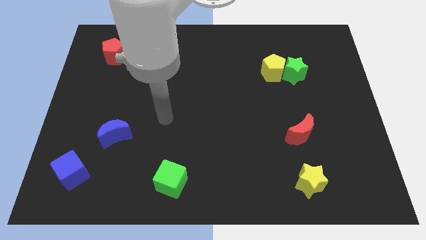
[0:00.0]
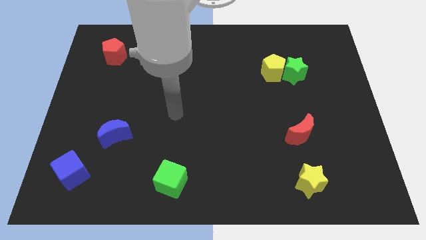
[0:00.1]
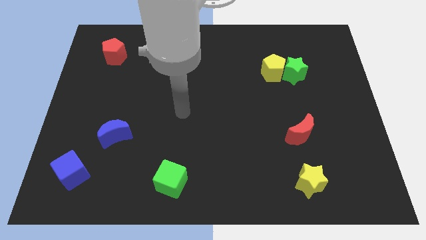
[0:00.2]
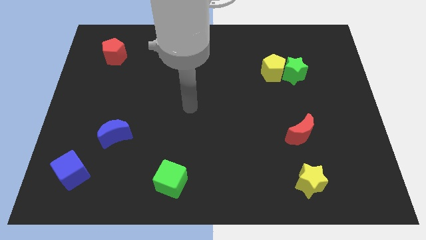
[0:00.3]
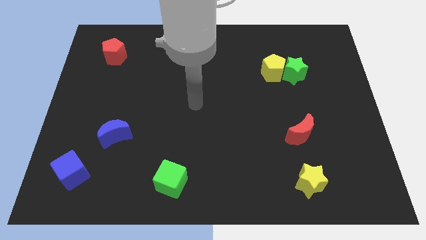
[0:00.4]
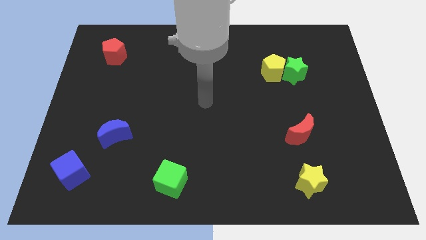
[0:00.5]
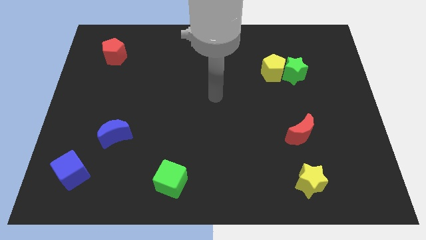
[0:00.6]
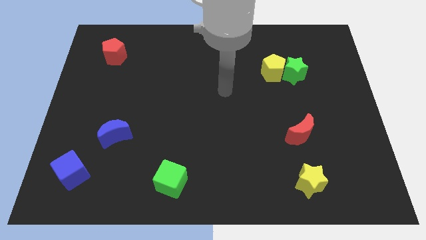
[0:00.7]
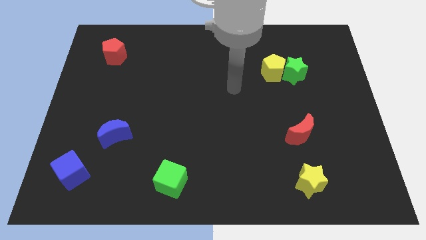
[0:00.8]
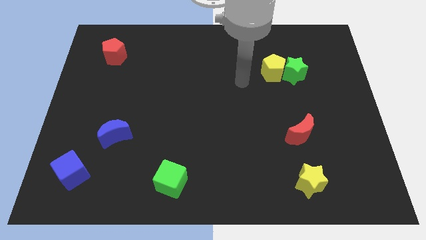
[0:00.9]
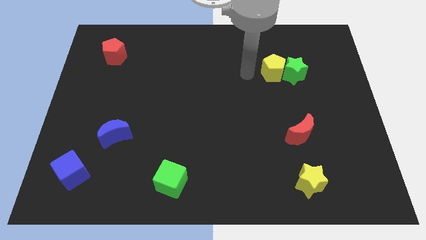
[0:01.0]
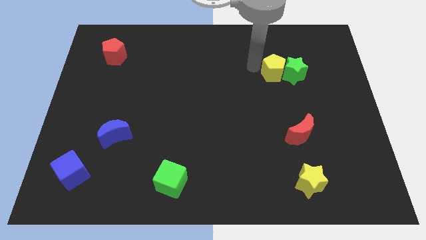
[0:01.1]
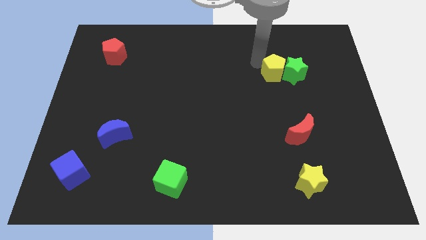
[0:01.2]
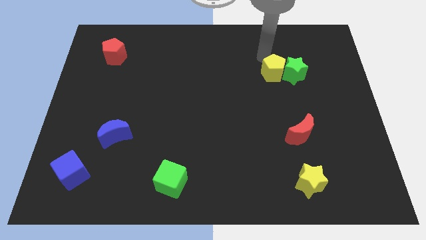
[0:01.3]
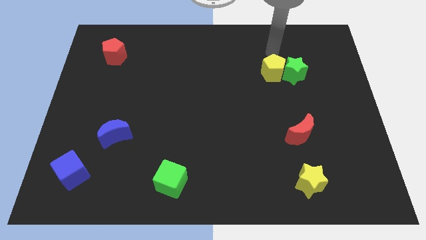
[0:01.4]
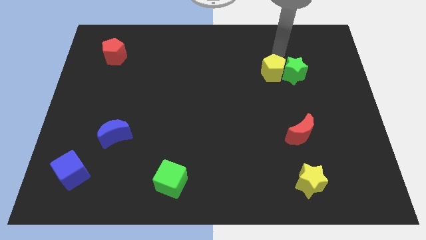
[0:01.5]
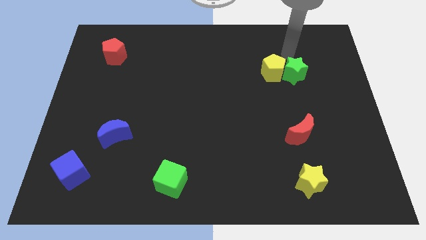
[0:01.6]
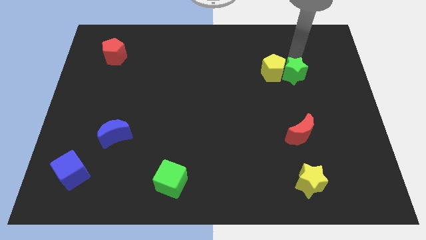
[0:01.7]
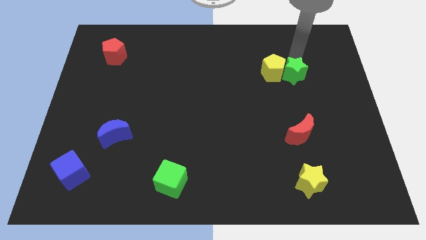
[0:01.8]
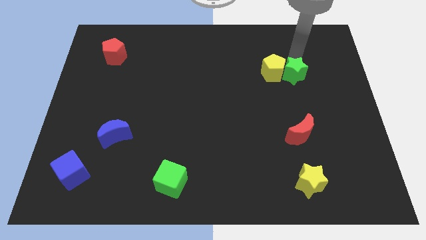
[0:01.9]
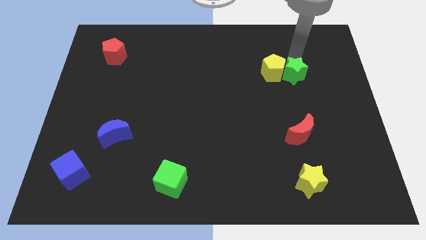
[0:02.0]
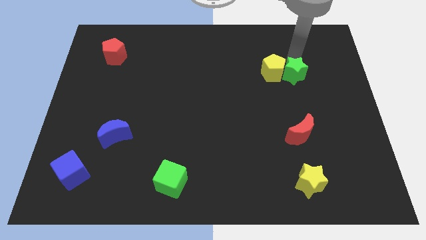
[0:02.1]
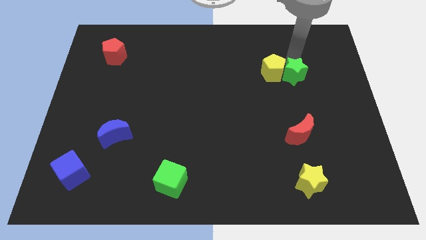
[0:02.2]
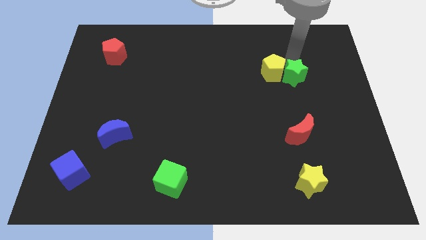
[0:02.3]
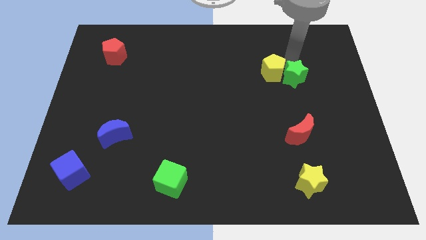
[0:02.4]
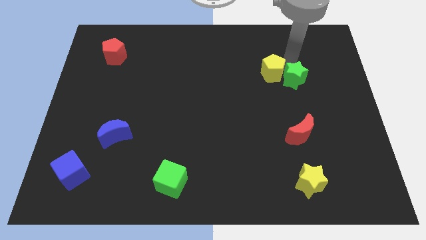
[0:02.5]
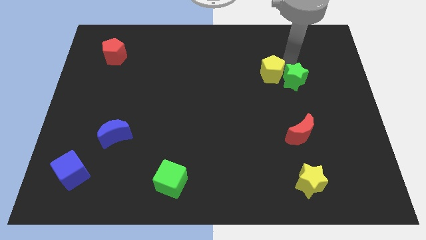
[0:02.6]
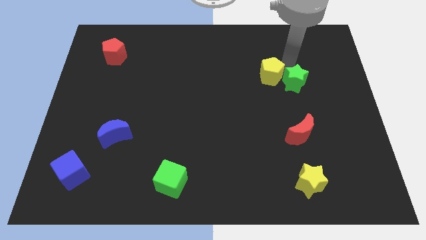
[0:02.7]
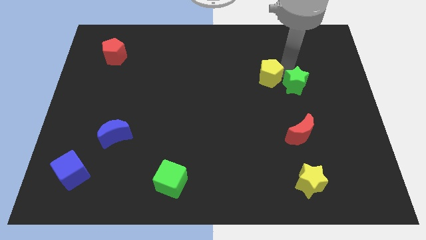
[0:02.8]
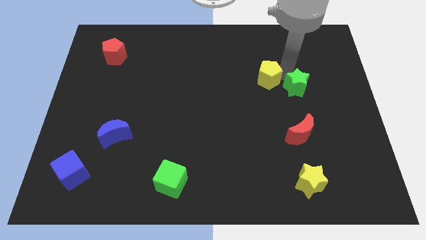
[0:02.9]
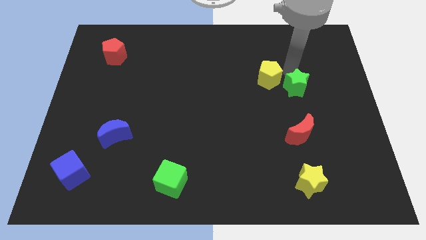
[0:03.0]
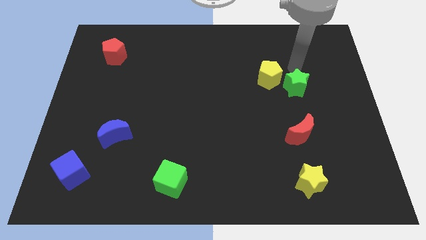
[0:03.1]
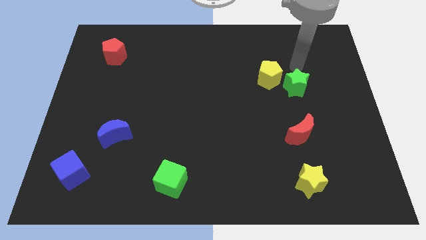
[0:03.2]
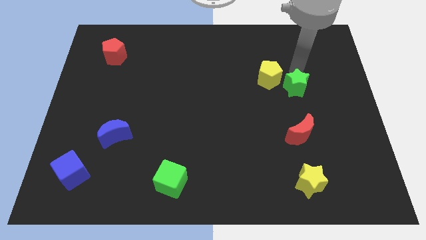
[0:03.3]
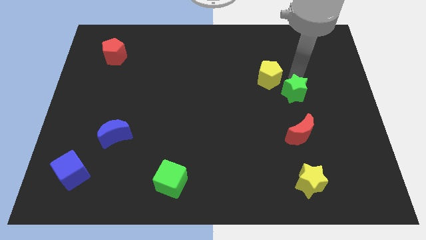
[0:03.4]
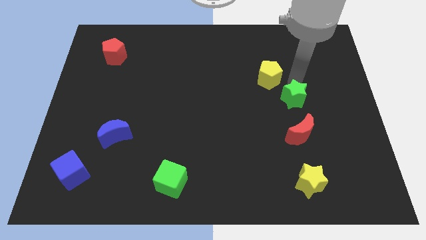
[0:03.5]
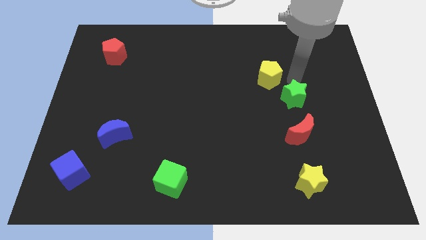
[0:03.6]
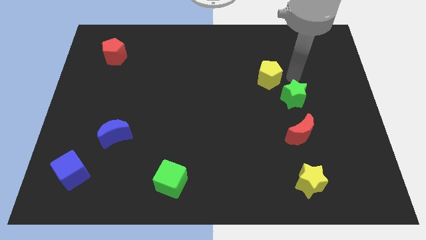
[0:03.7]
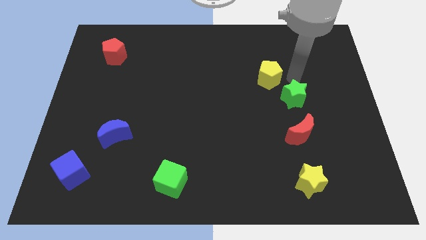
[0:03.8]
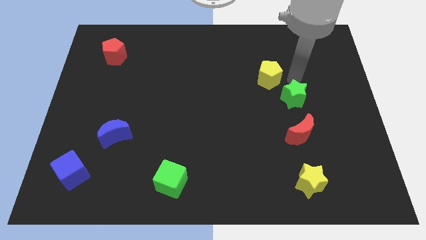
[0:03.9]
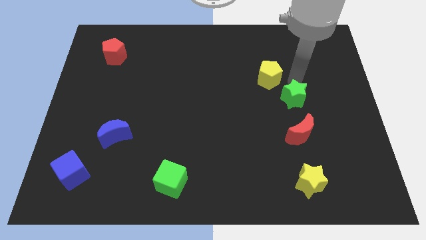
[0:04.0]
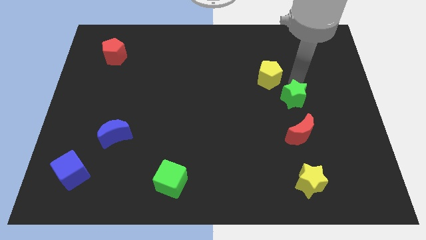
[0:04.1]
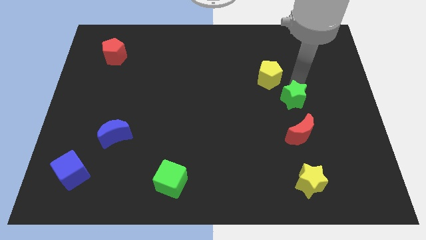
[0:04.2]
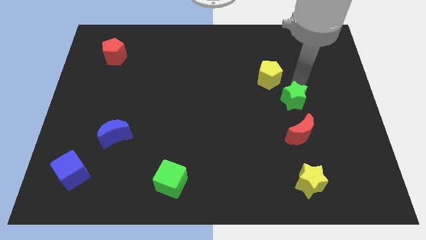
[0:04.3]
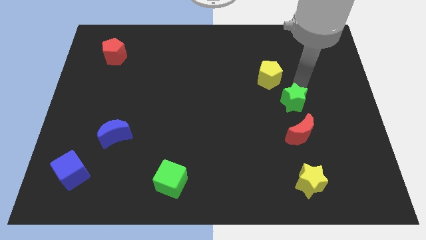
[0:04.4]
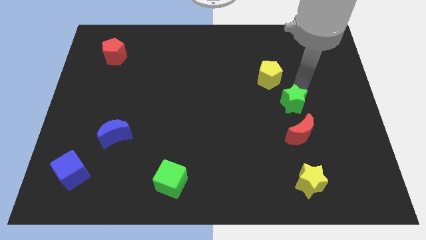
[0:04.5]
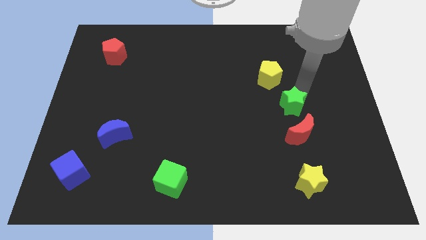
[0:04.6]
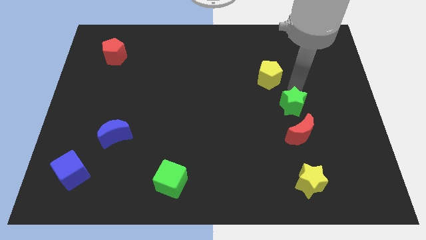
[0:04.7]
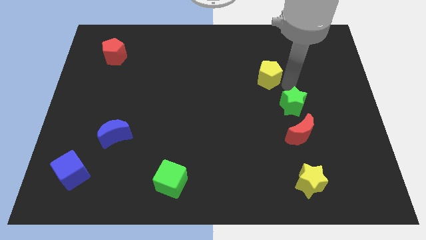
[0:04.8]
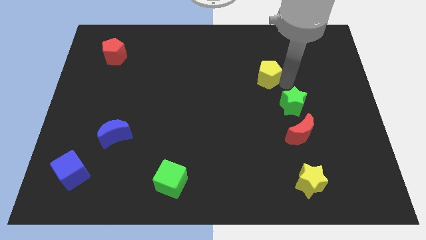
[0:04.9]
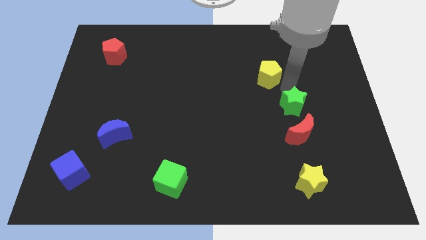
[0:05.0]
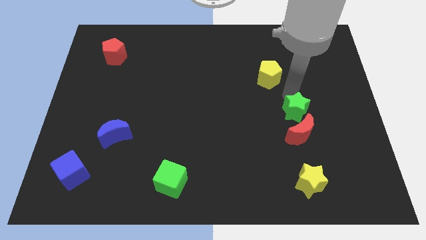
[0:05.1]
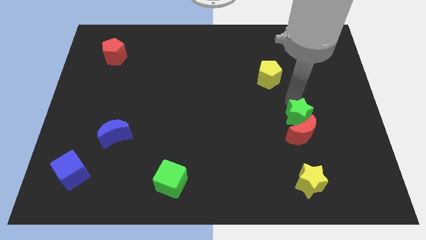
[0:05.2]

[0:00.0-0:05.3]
push the green star next to the red moon

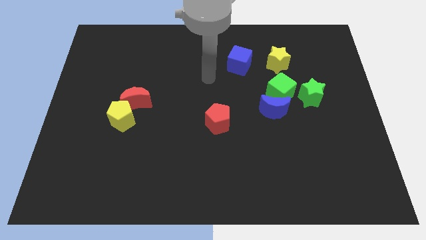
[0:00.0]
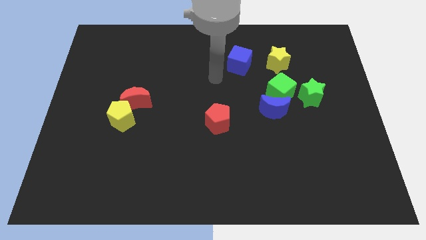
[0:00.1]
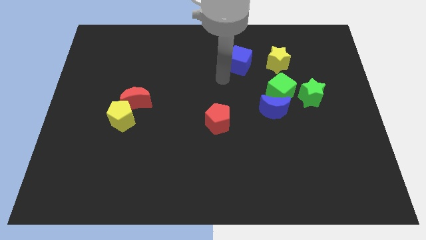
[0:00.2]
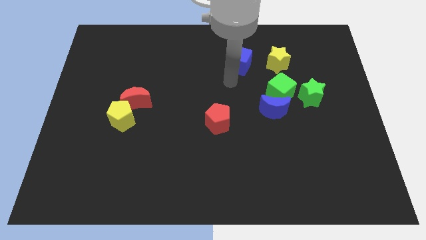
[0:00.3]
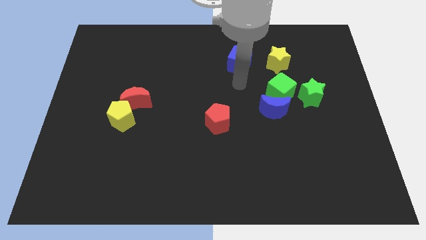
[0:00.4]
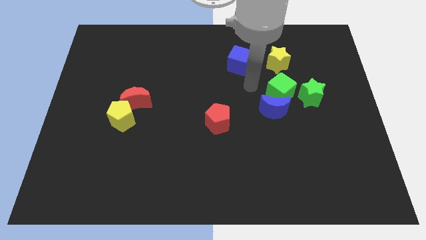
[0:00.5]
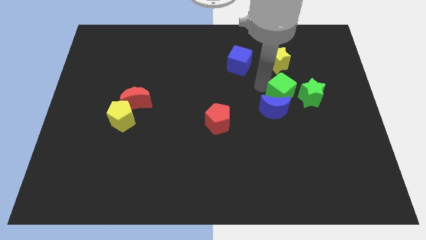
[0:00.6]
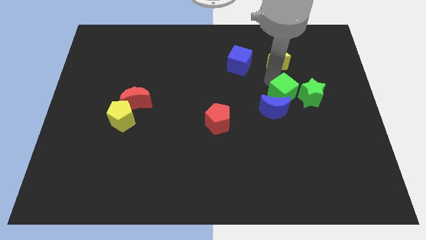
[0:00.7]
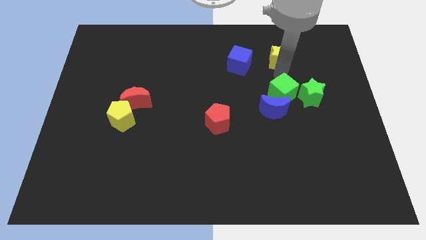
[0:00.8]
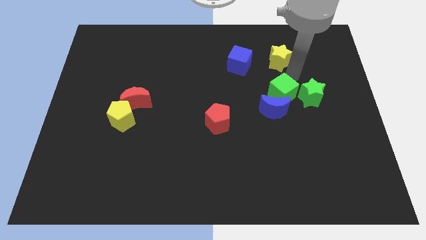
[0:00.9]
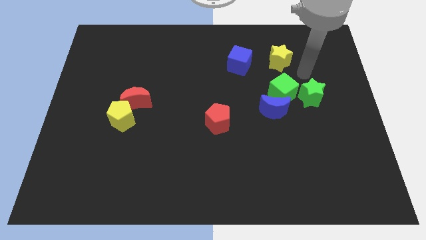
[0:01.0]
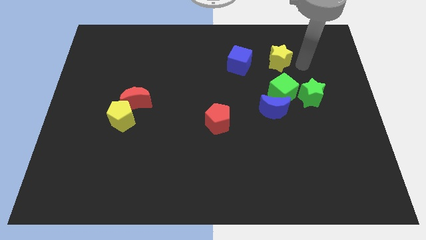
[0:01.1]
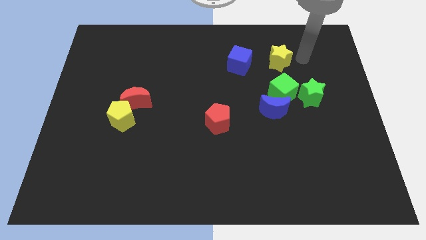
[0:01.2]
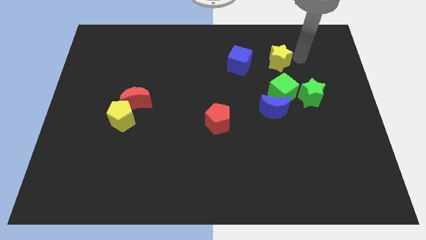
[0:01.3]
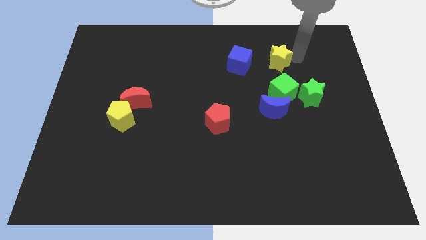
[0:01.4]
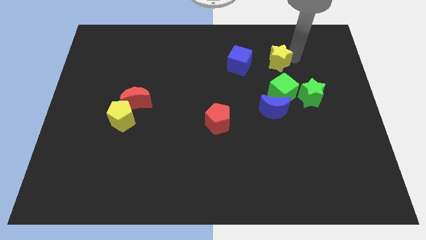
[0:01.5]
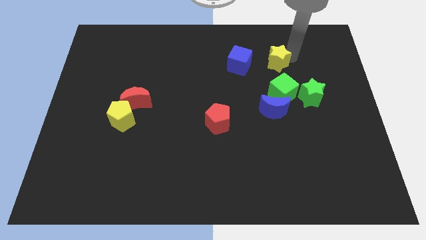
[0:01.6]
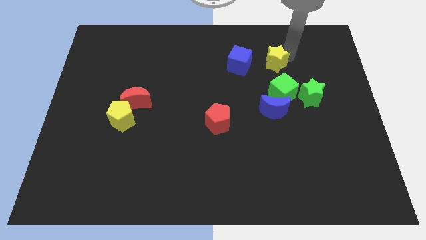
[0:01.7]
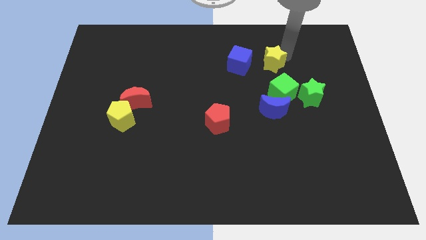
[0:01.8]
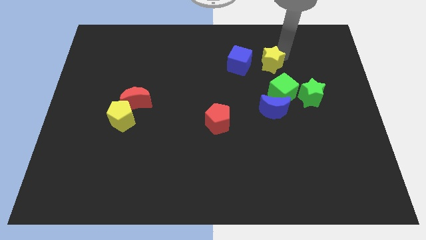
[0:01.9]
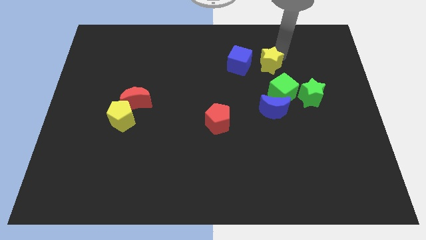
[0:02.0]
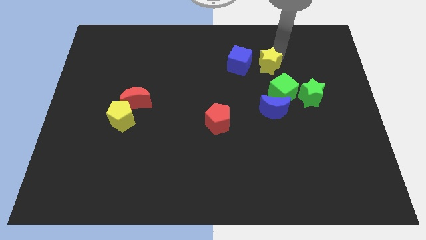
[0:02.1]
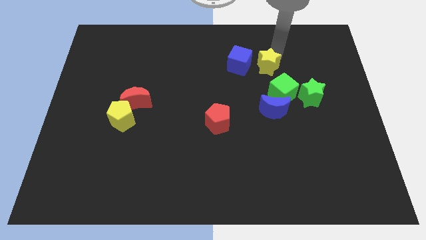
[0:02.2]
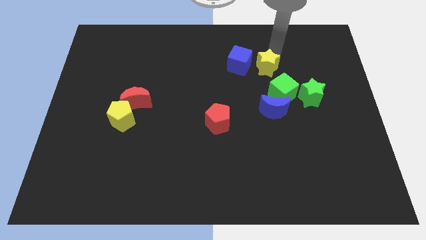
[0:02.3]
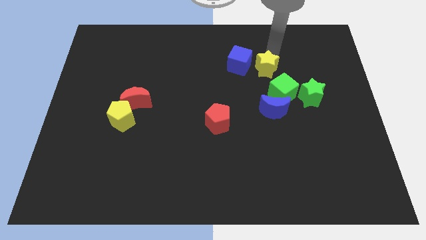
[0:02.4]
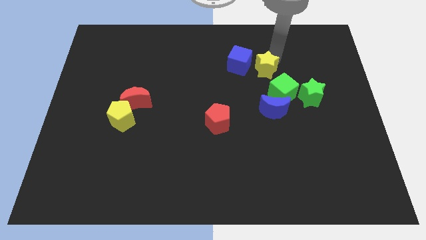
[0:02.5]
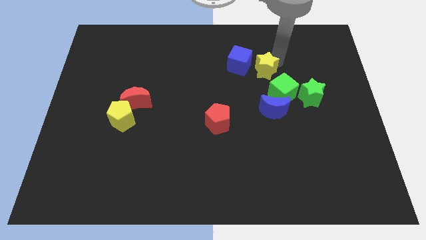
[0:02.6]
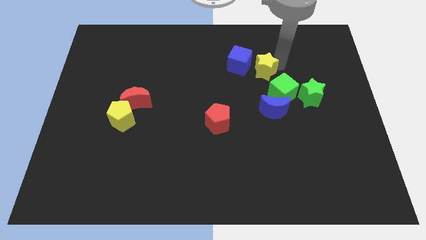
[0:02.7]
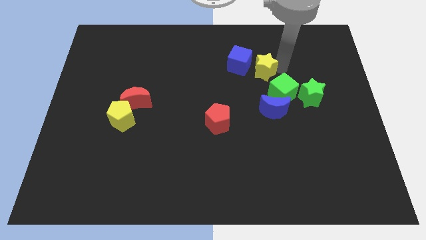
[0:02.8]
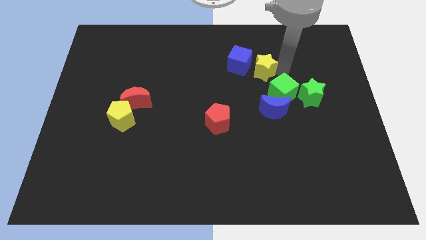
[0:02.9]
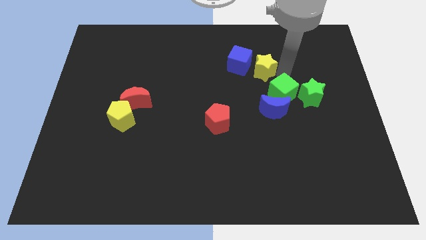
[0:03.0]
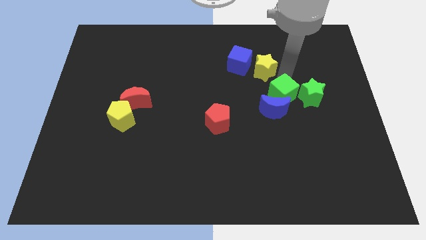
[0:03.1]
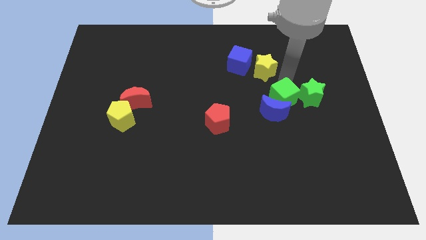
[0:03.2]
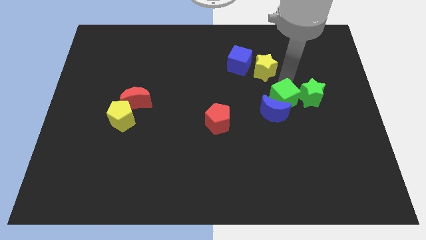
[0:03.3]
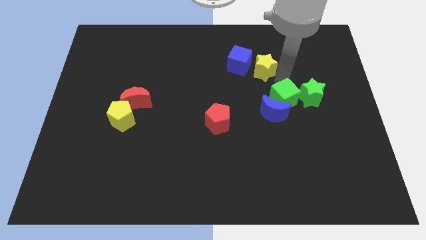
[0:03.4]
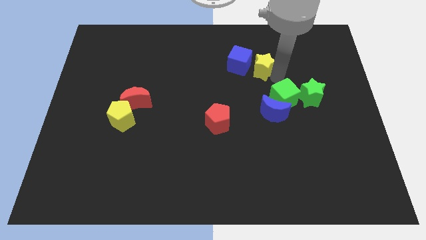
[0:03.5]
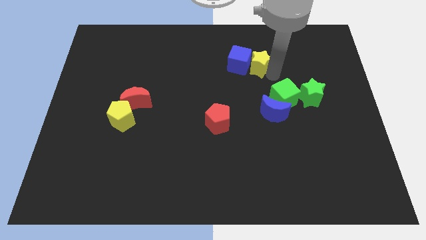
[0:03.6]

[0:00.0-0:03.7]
slide the yellow star close to the blue cube
